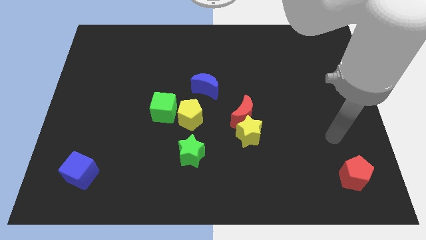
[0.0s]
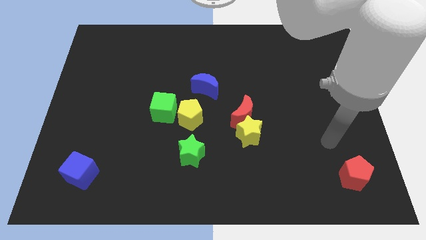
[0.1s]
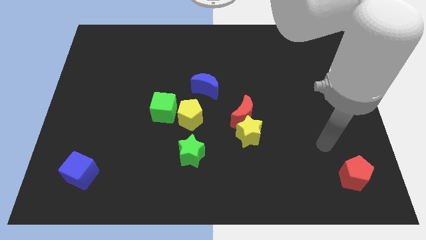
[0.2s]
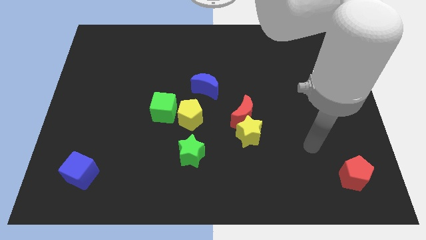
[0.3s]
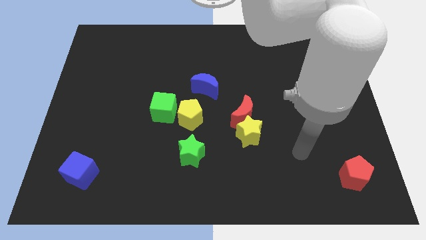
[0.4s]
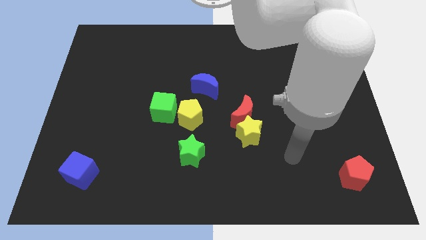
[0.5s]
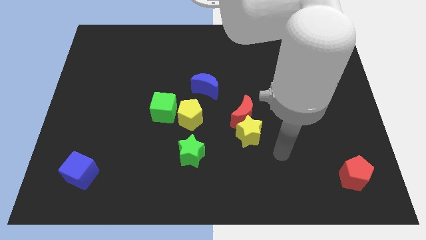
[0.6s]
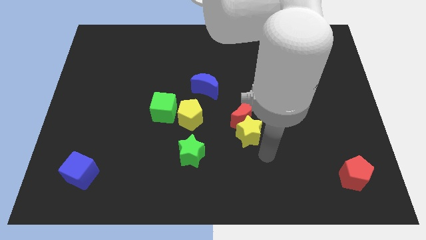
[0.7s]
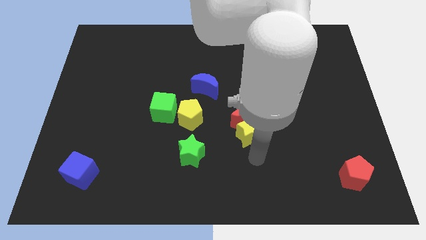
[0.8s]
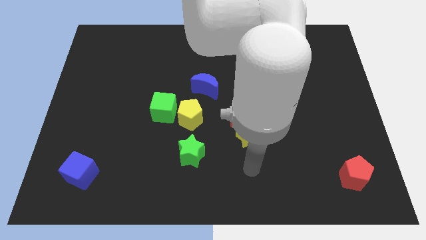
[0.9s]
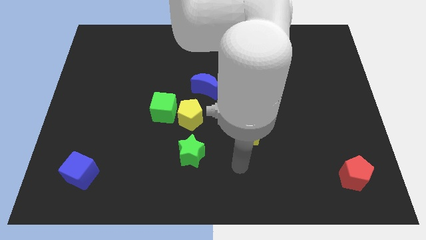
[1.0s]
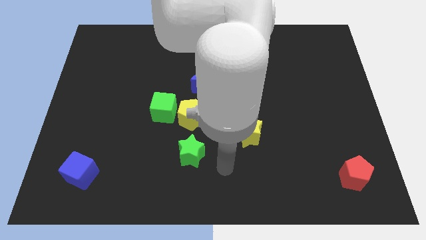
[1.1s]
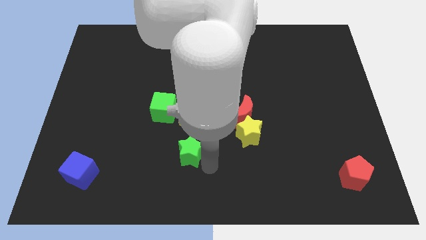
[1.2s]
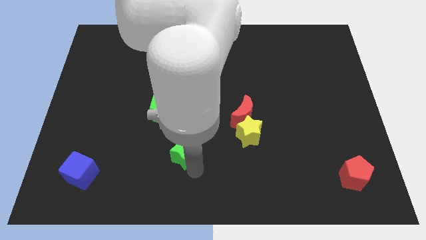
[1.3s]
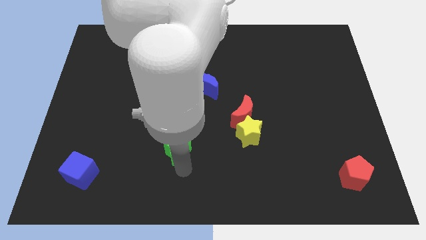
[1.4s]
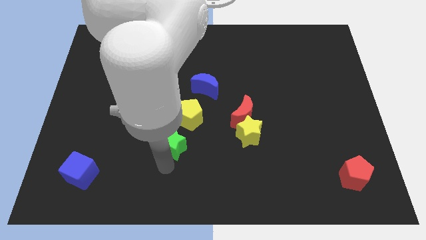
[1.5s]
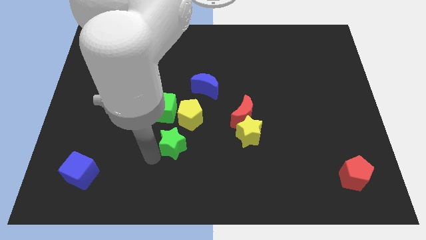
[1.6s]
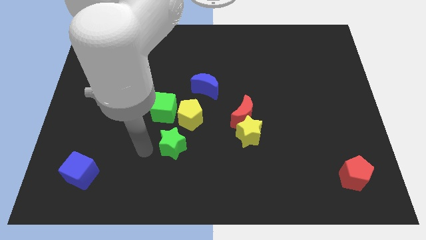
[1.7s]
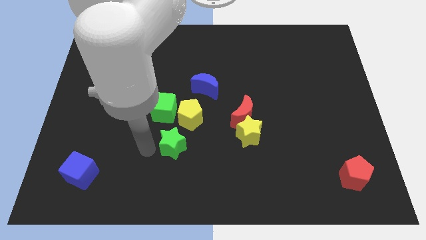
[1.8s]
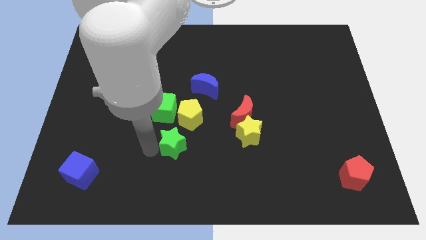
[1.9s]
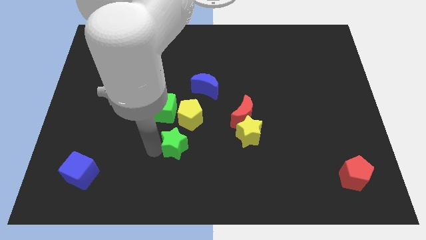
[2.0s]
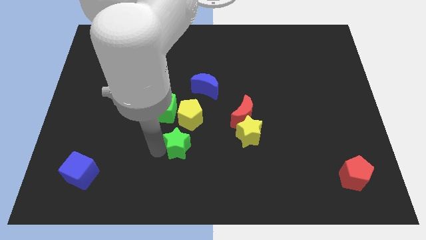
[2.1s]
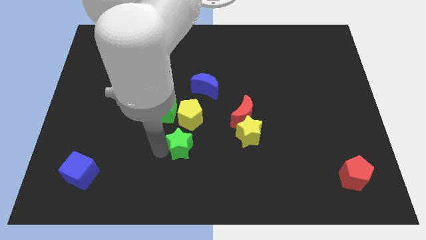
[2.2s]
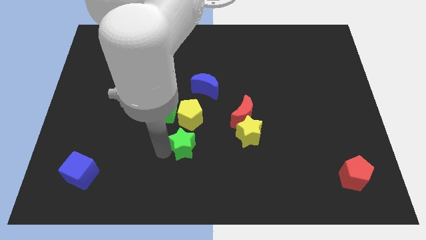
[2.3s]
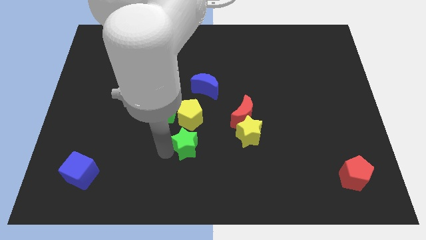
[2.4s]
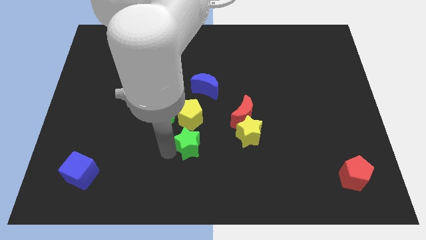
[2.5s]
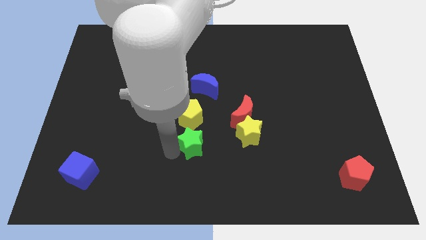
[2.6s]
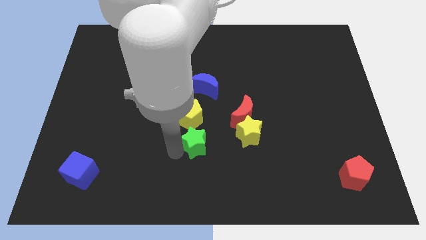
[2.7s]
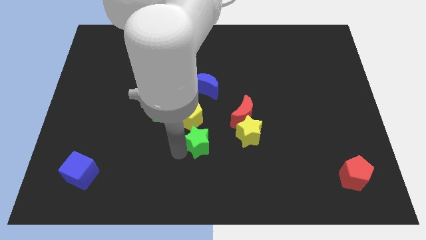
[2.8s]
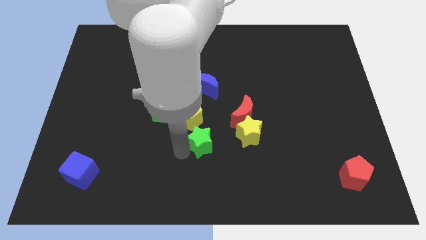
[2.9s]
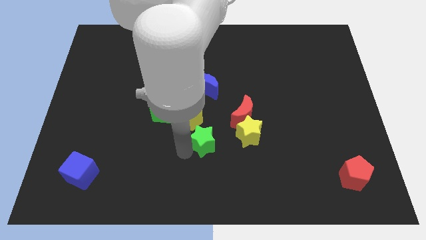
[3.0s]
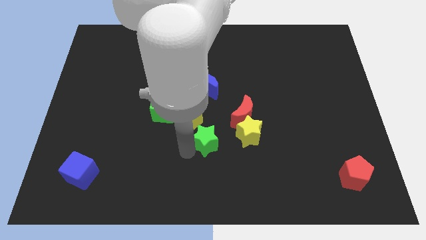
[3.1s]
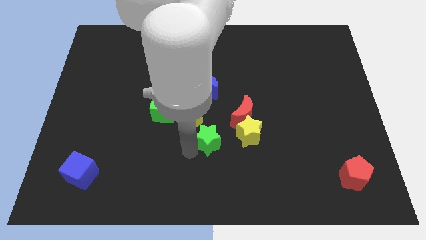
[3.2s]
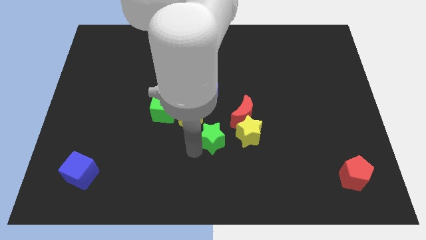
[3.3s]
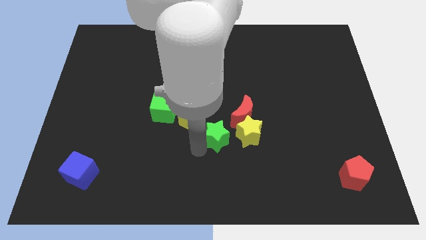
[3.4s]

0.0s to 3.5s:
push the green star a little bit diagonally up and right

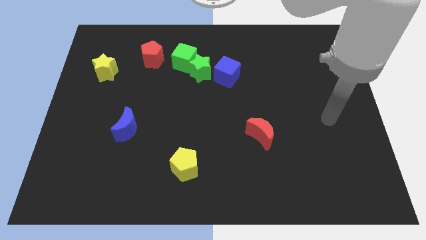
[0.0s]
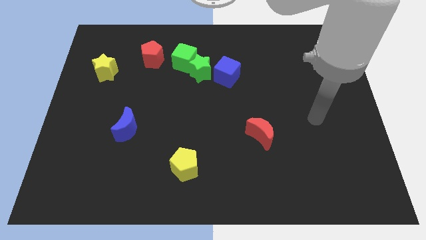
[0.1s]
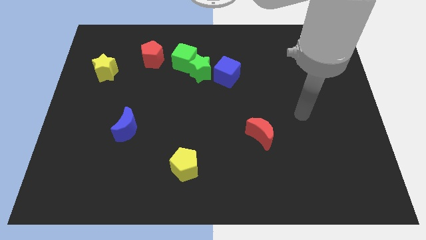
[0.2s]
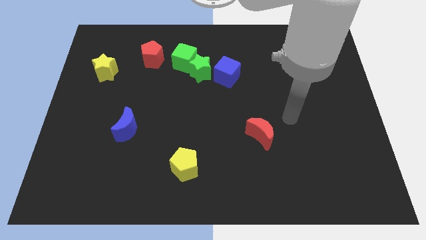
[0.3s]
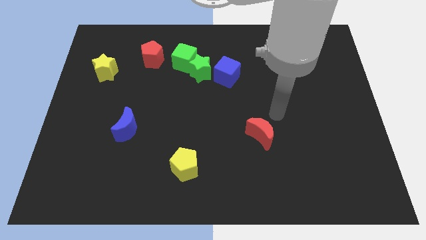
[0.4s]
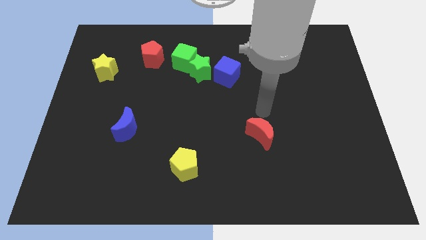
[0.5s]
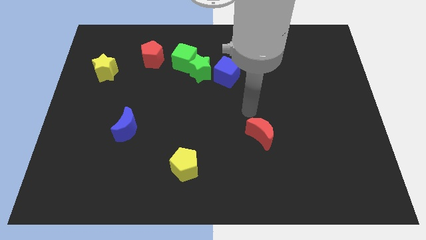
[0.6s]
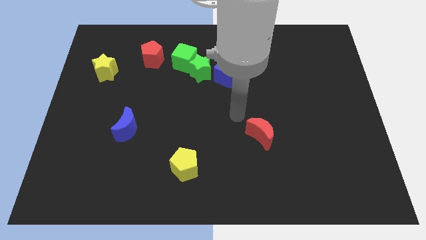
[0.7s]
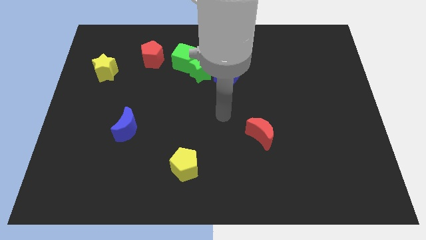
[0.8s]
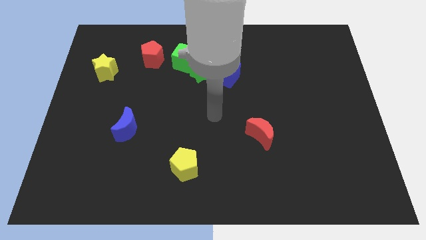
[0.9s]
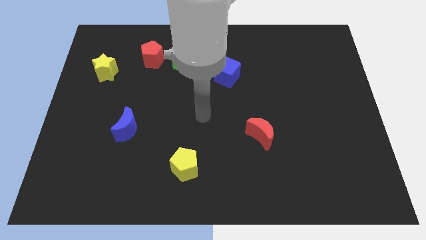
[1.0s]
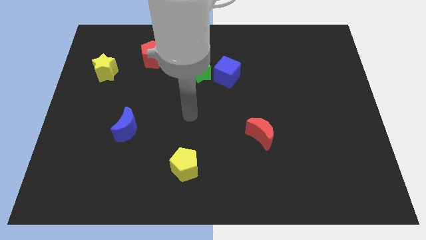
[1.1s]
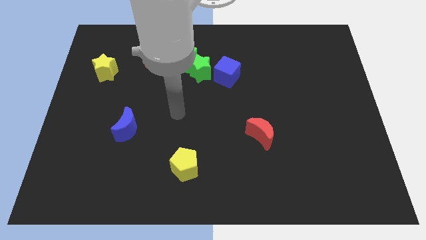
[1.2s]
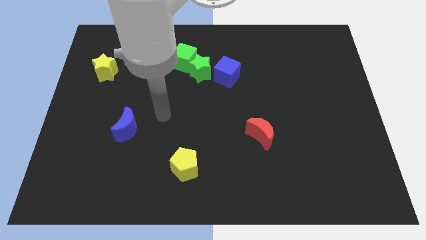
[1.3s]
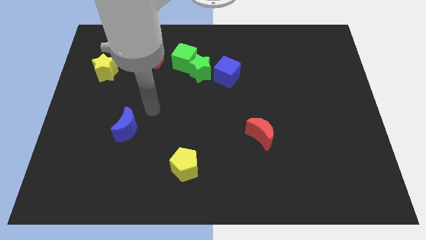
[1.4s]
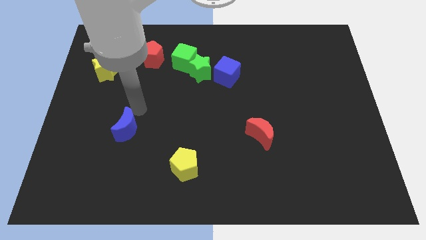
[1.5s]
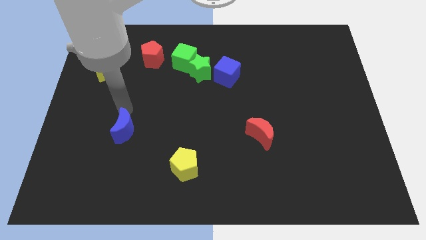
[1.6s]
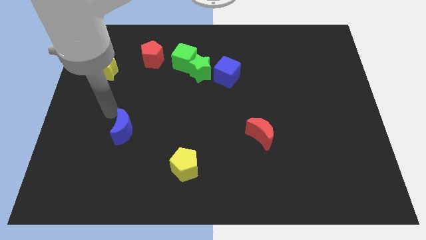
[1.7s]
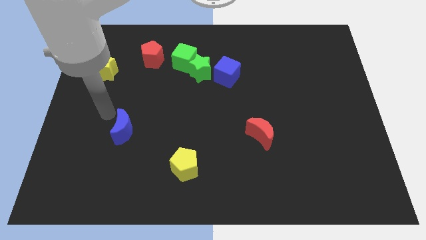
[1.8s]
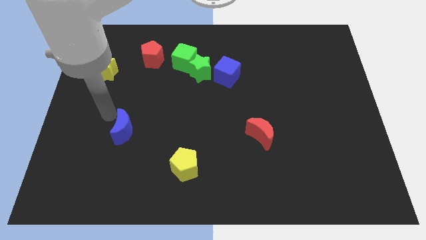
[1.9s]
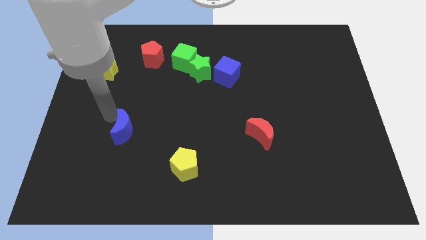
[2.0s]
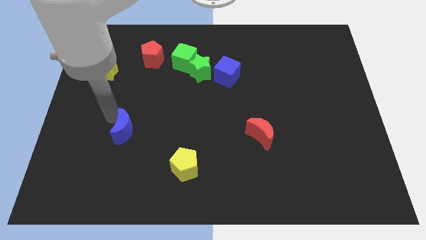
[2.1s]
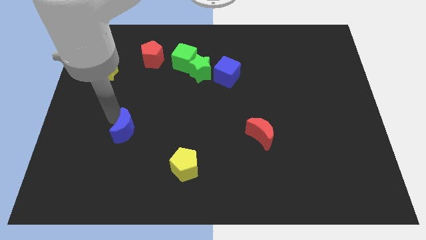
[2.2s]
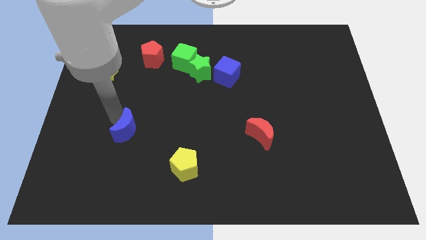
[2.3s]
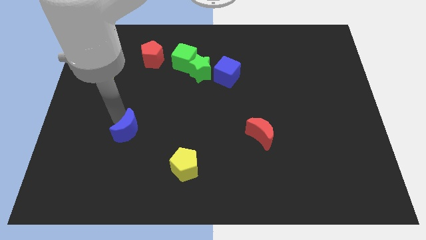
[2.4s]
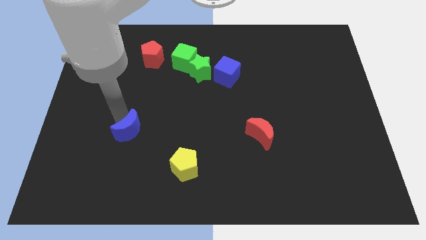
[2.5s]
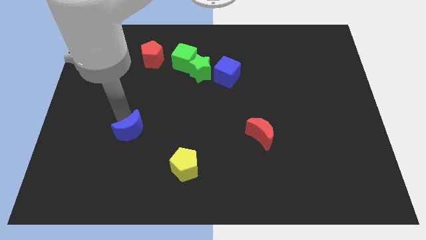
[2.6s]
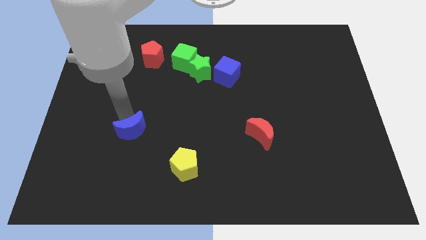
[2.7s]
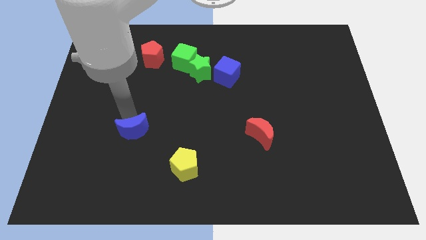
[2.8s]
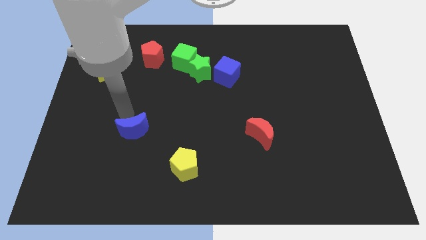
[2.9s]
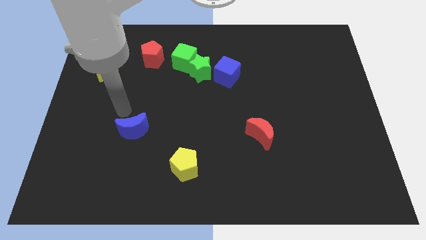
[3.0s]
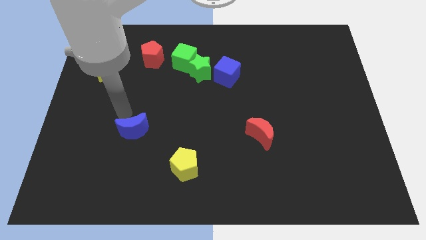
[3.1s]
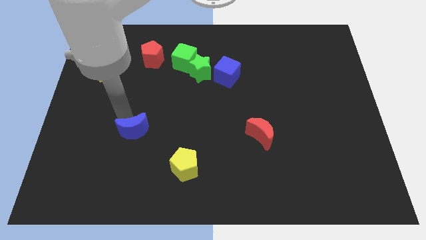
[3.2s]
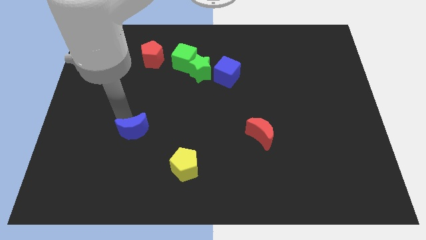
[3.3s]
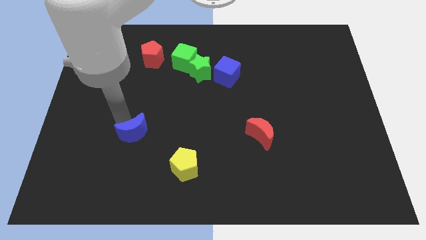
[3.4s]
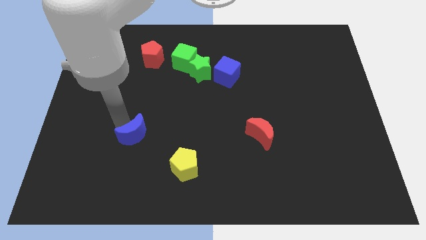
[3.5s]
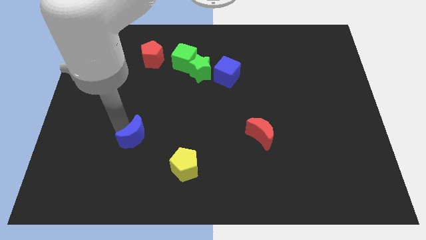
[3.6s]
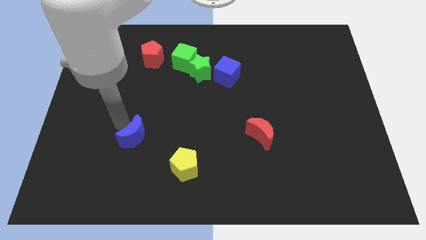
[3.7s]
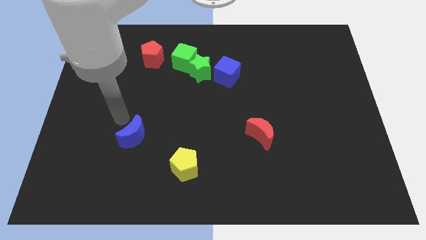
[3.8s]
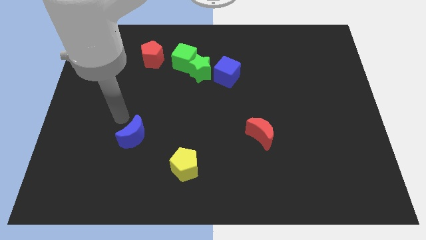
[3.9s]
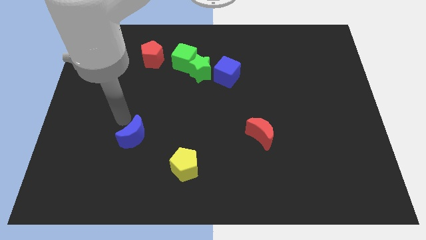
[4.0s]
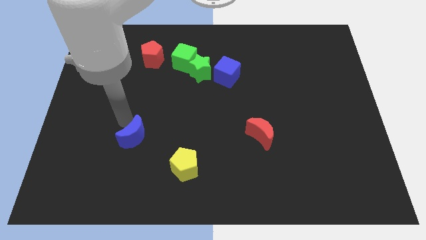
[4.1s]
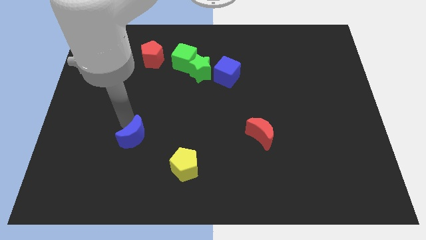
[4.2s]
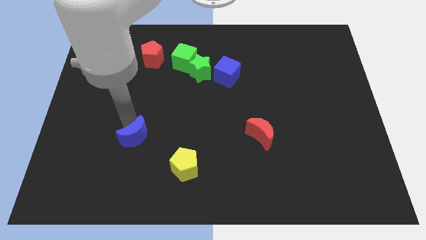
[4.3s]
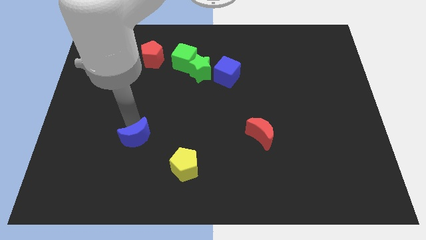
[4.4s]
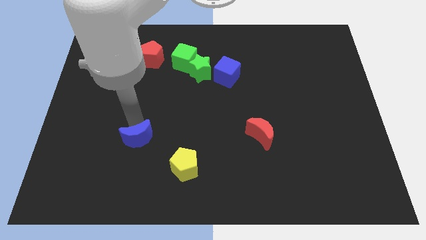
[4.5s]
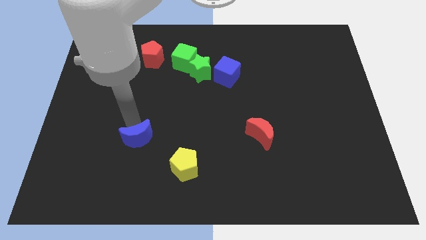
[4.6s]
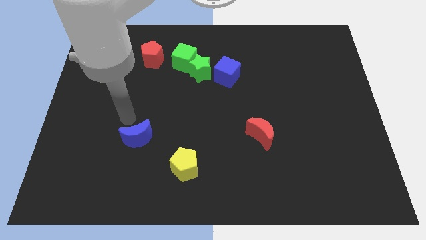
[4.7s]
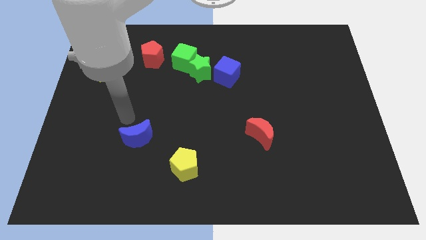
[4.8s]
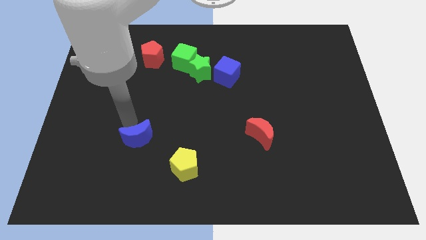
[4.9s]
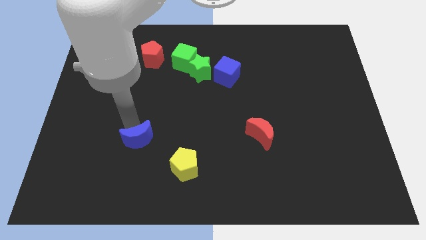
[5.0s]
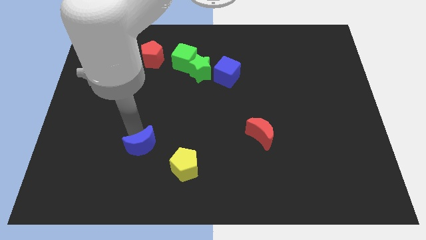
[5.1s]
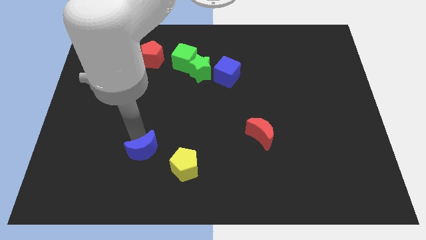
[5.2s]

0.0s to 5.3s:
slide the blue moon down and to the right a little
